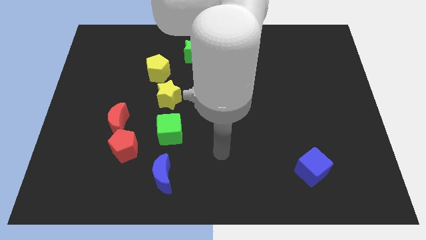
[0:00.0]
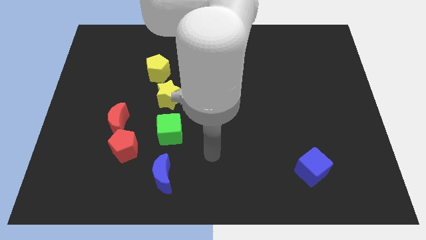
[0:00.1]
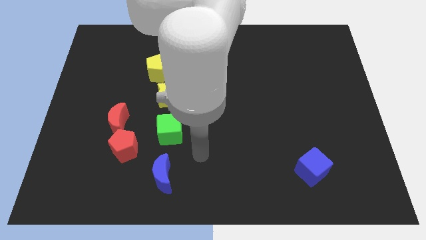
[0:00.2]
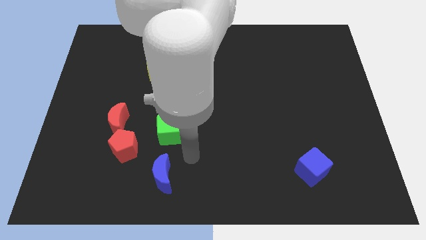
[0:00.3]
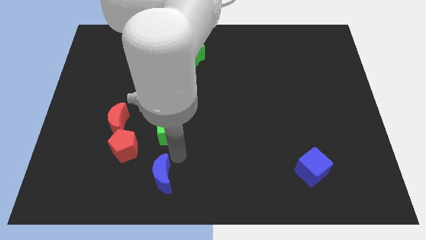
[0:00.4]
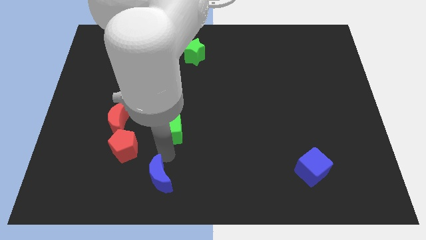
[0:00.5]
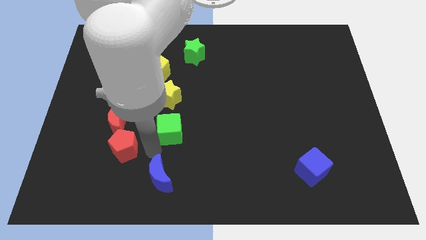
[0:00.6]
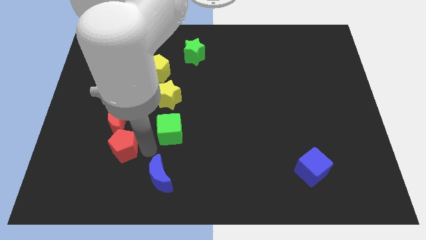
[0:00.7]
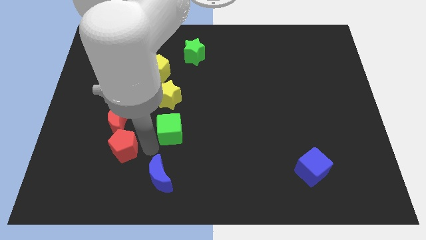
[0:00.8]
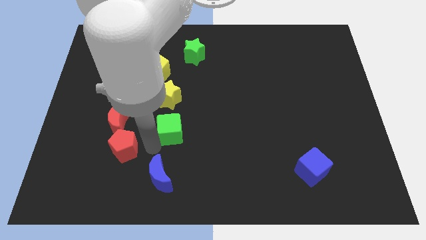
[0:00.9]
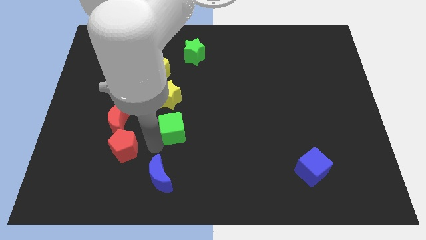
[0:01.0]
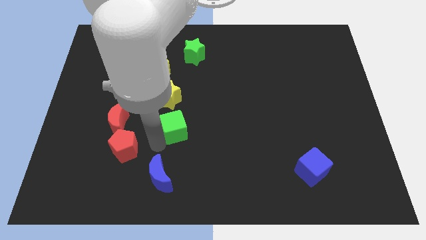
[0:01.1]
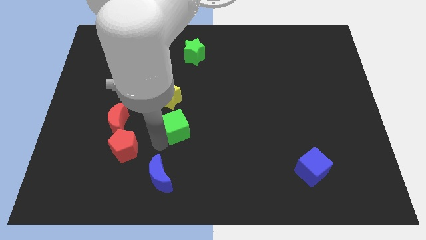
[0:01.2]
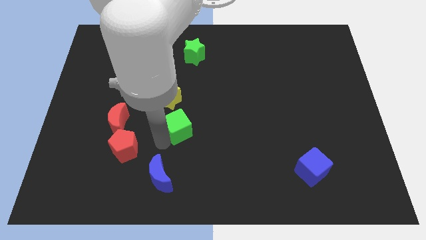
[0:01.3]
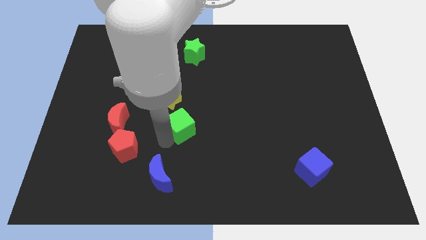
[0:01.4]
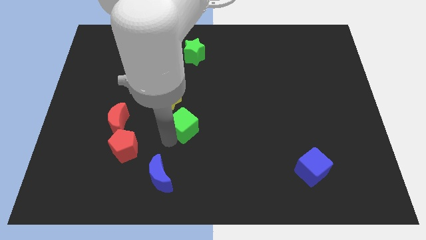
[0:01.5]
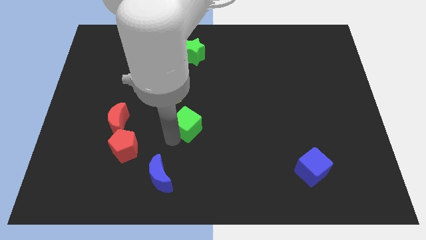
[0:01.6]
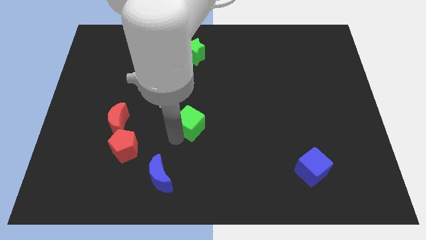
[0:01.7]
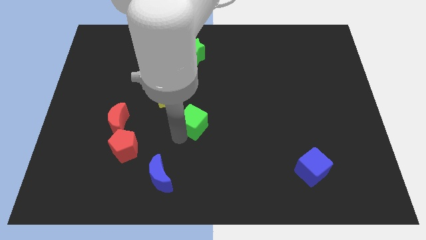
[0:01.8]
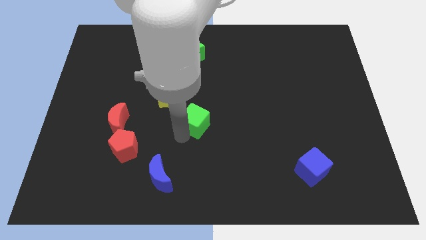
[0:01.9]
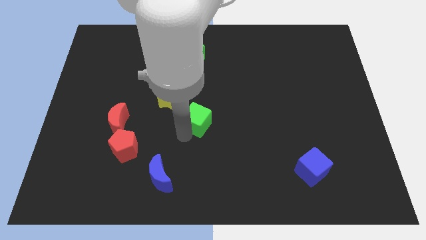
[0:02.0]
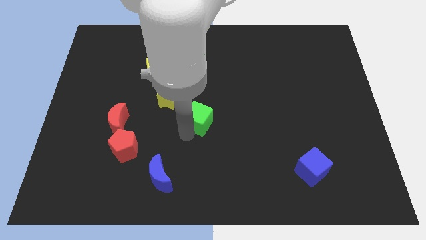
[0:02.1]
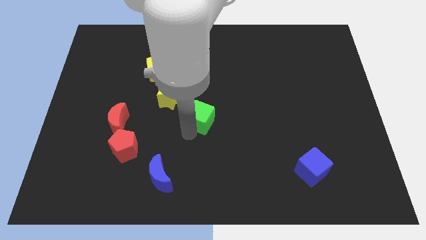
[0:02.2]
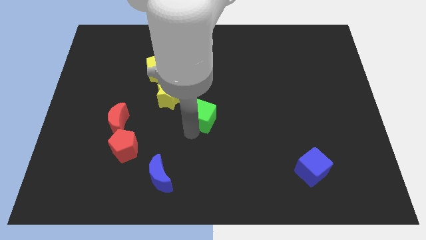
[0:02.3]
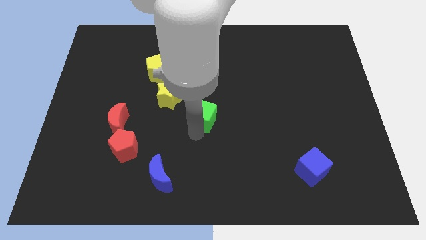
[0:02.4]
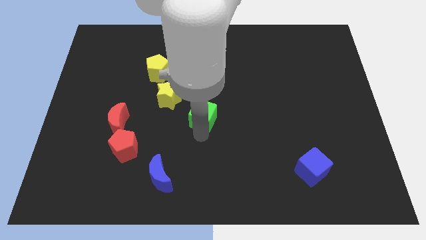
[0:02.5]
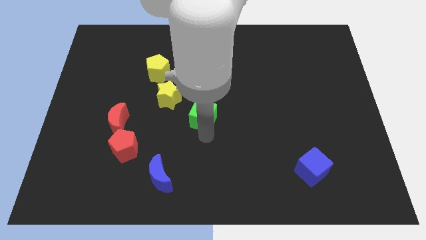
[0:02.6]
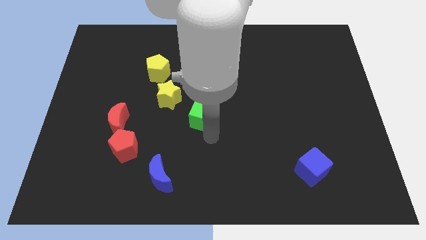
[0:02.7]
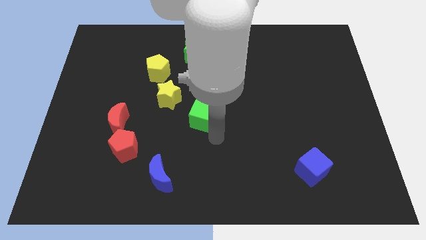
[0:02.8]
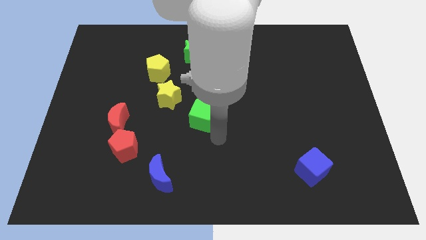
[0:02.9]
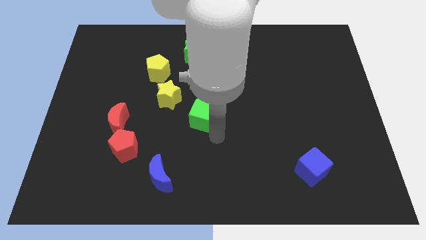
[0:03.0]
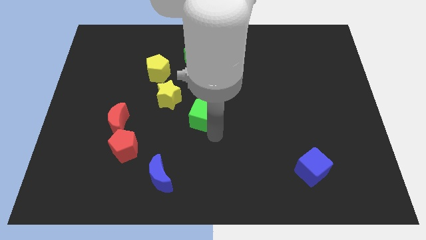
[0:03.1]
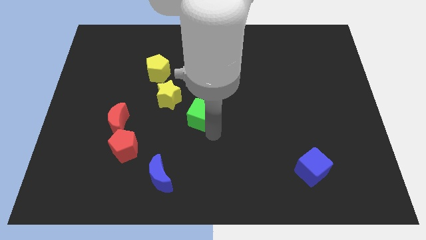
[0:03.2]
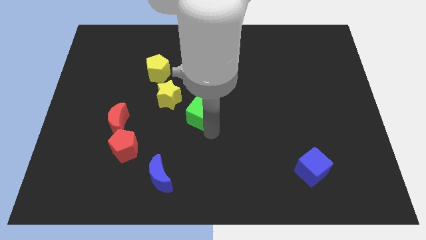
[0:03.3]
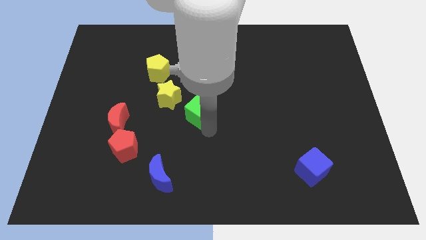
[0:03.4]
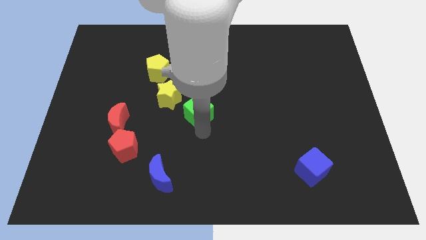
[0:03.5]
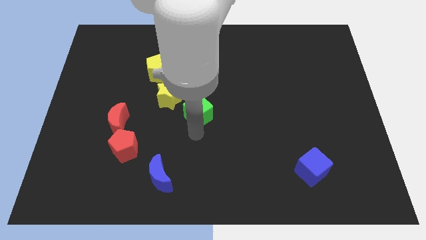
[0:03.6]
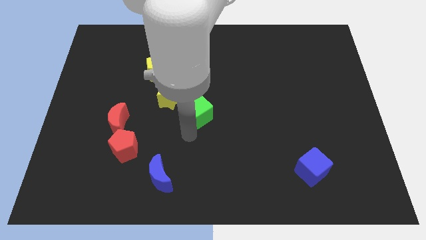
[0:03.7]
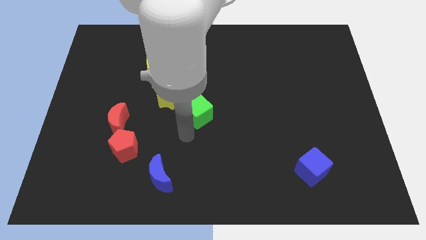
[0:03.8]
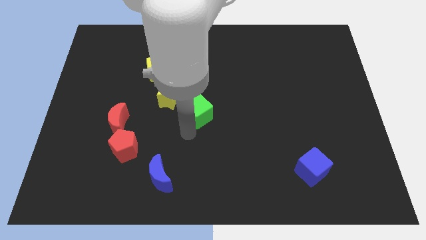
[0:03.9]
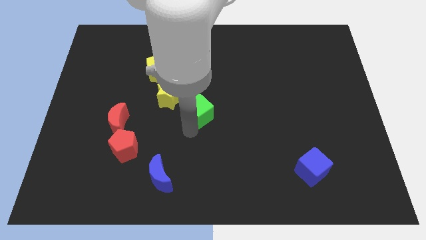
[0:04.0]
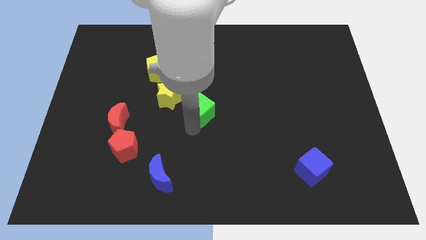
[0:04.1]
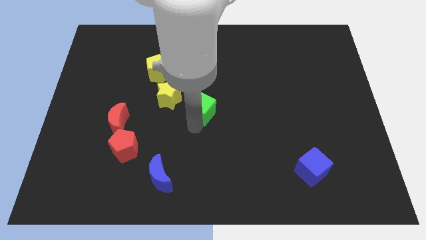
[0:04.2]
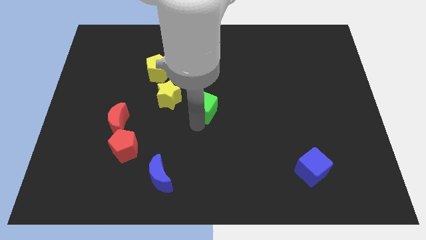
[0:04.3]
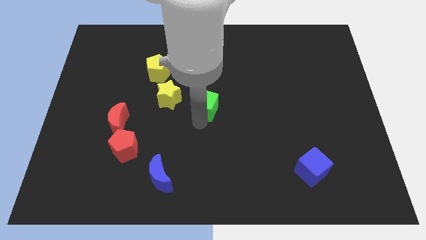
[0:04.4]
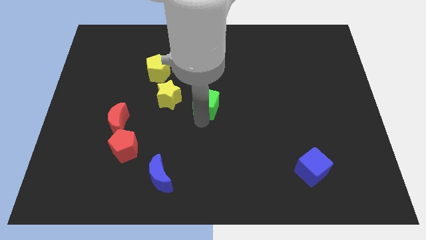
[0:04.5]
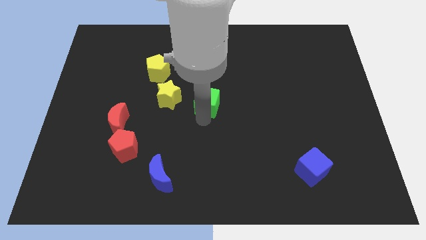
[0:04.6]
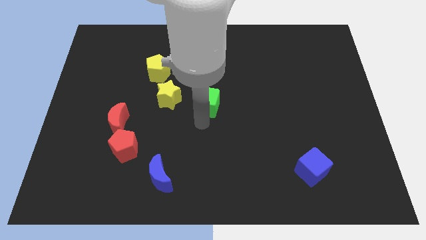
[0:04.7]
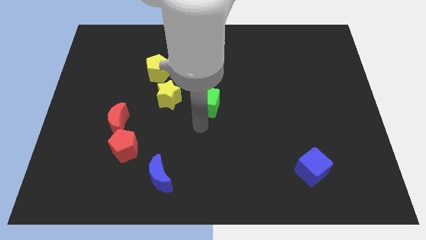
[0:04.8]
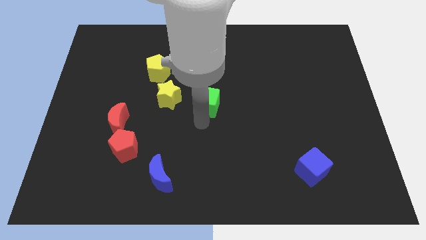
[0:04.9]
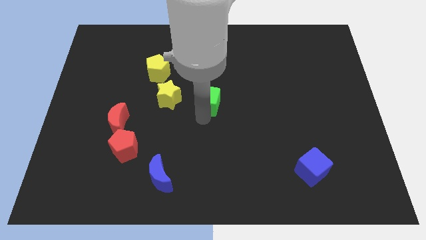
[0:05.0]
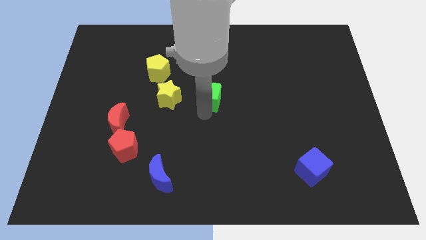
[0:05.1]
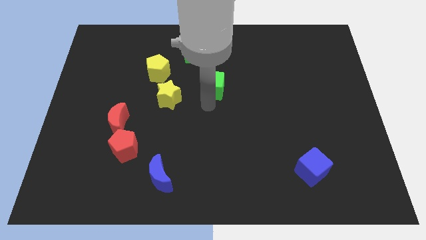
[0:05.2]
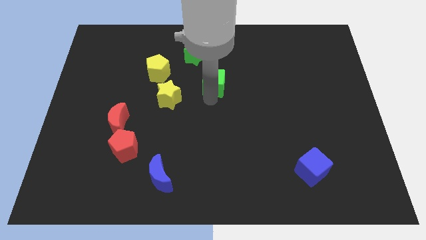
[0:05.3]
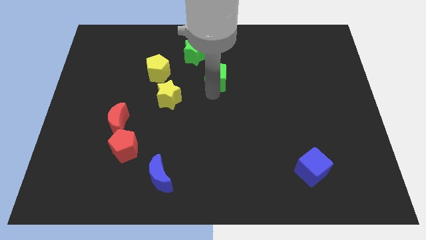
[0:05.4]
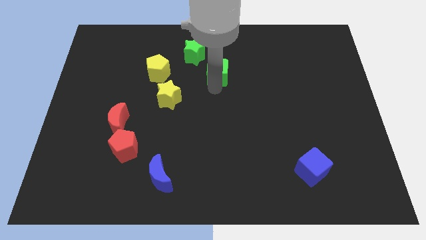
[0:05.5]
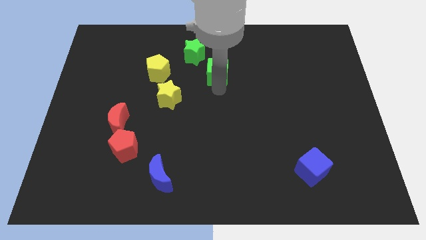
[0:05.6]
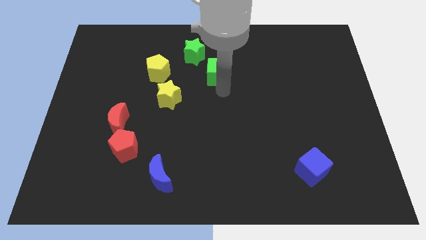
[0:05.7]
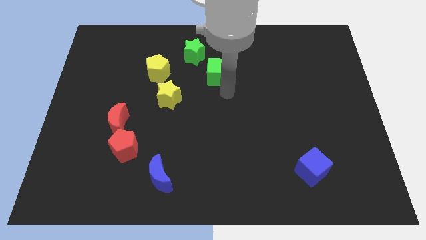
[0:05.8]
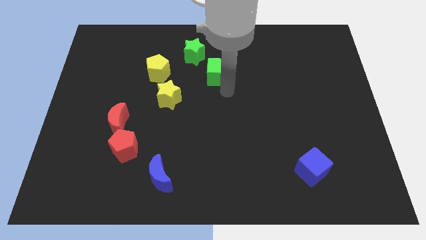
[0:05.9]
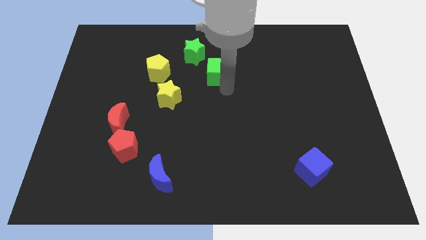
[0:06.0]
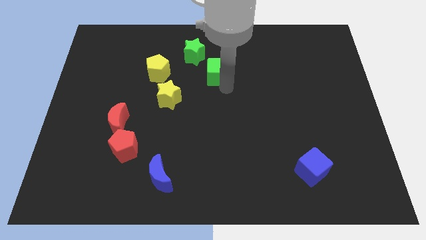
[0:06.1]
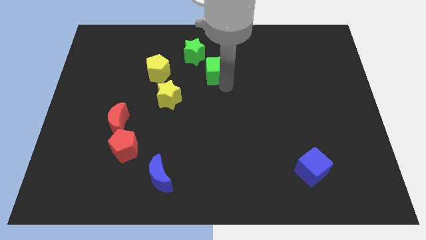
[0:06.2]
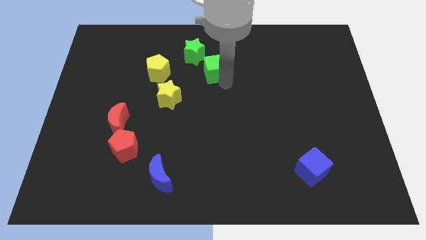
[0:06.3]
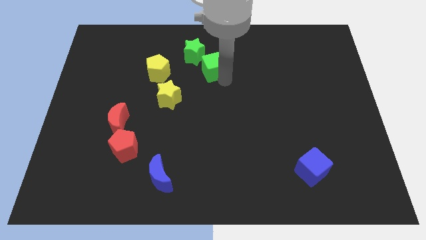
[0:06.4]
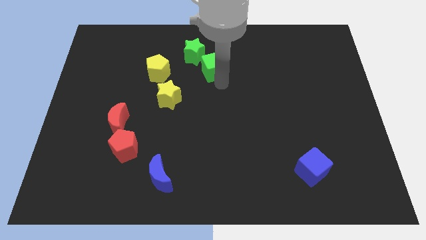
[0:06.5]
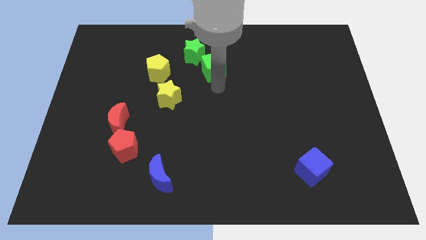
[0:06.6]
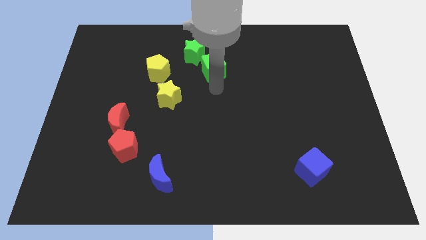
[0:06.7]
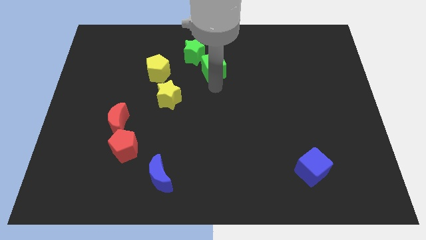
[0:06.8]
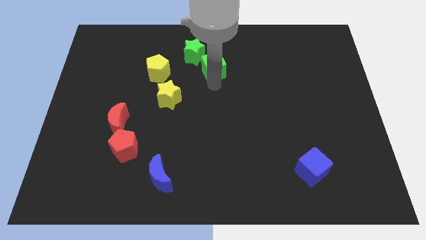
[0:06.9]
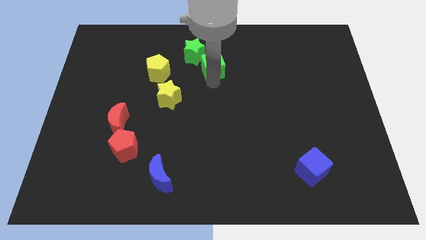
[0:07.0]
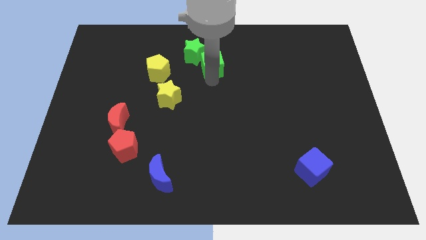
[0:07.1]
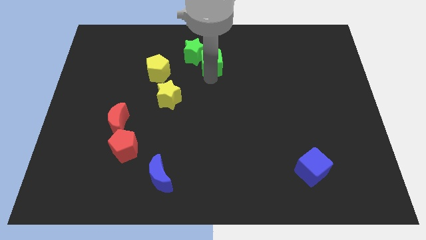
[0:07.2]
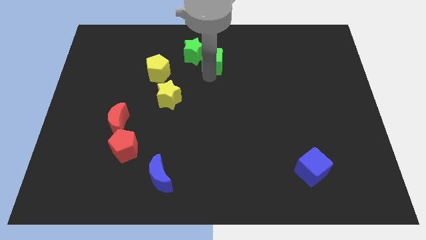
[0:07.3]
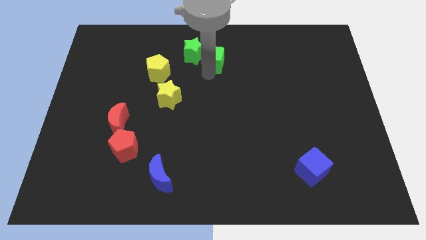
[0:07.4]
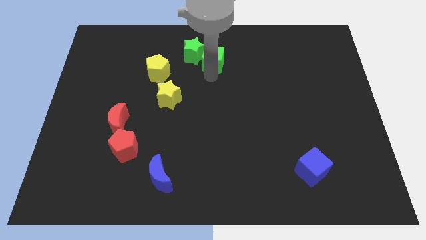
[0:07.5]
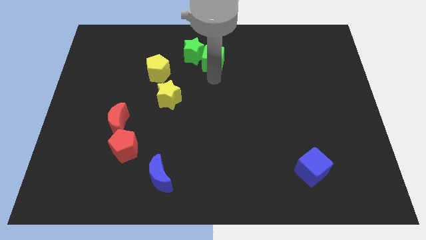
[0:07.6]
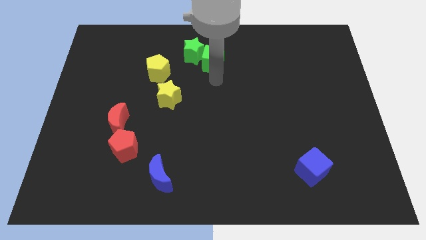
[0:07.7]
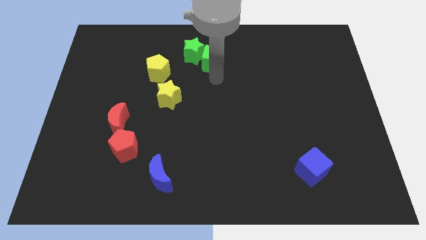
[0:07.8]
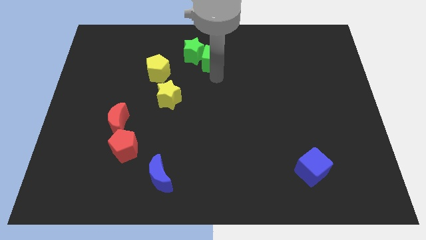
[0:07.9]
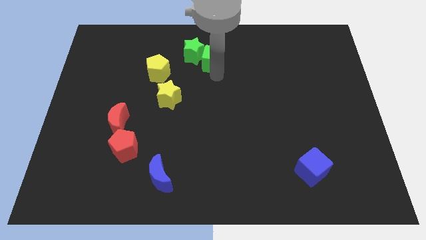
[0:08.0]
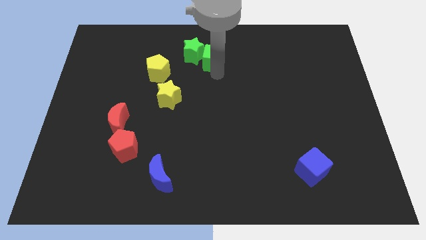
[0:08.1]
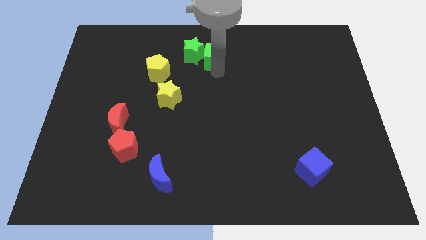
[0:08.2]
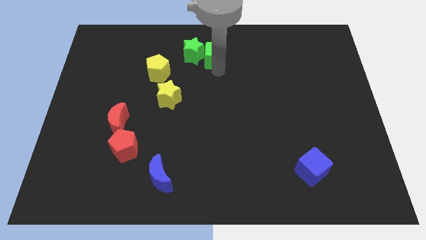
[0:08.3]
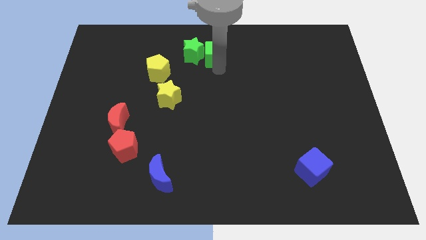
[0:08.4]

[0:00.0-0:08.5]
push the green cube to the towards your base
